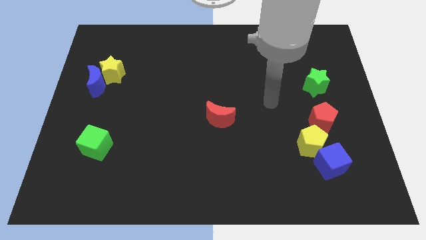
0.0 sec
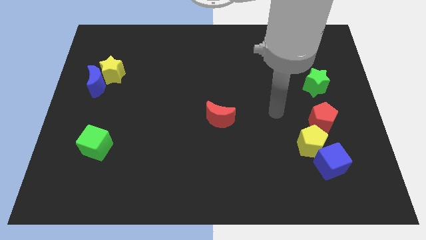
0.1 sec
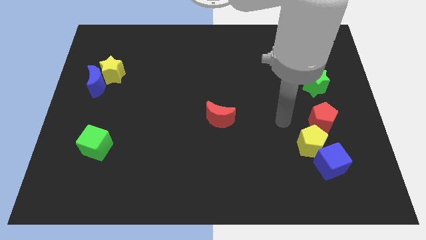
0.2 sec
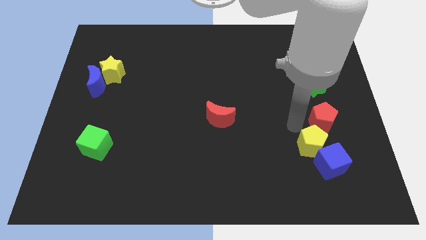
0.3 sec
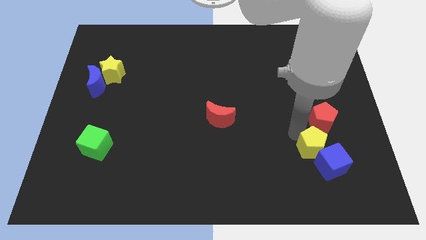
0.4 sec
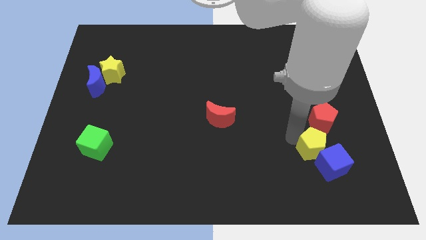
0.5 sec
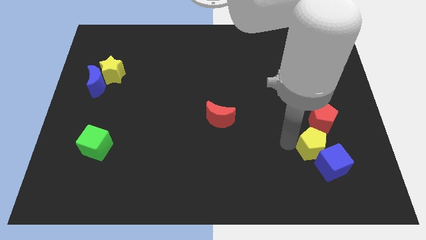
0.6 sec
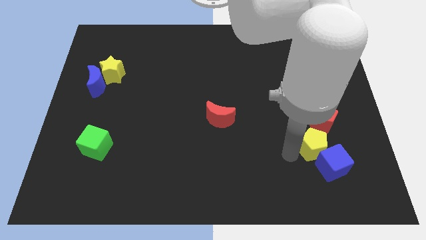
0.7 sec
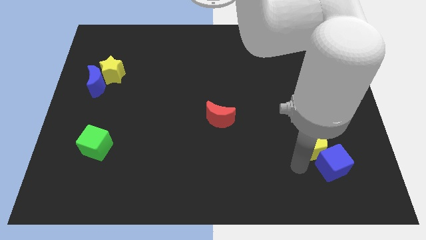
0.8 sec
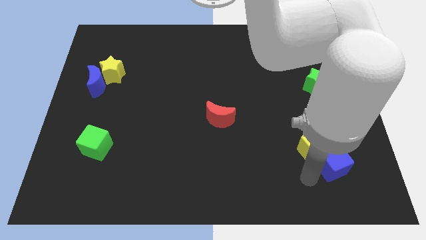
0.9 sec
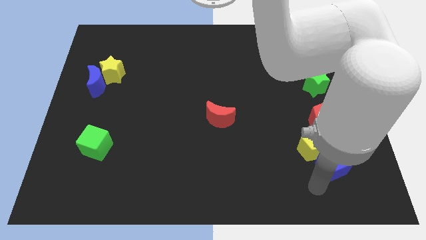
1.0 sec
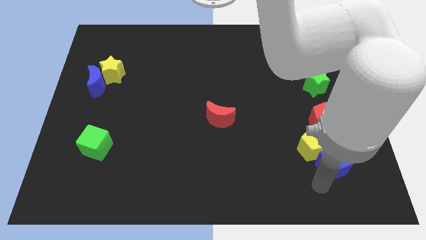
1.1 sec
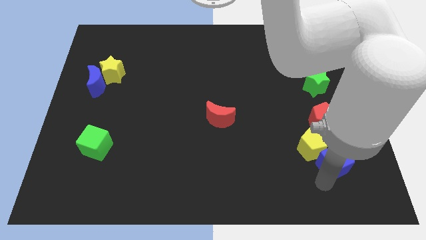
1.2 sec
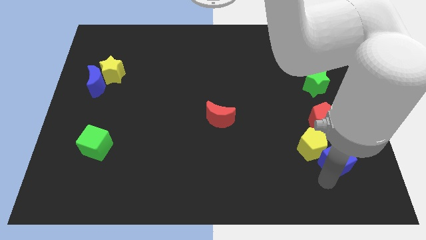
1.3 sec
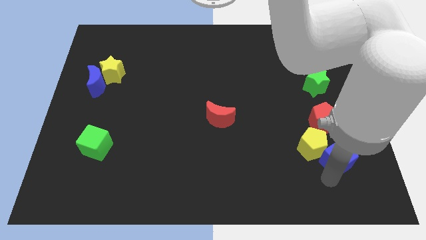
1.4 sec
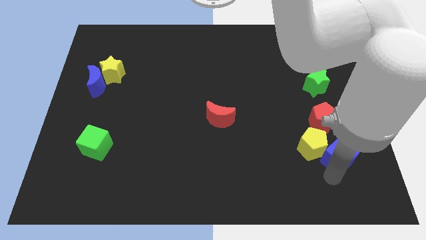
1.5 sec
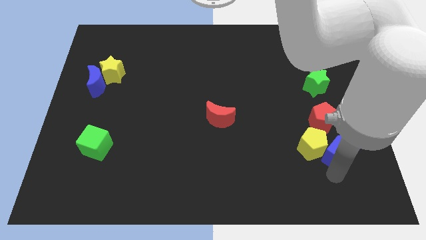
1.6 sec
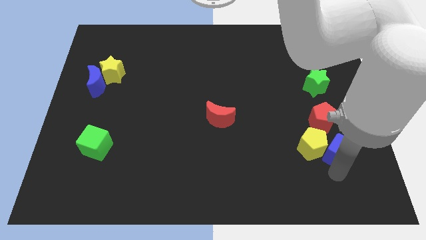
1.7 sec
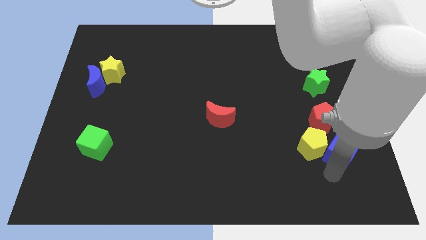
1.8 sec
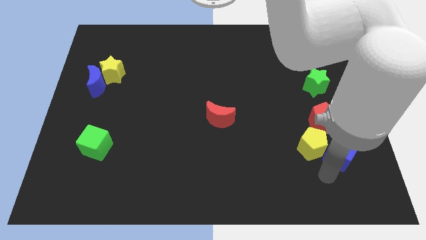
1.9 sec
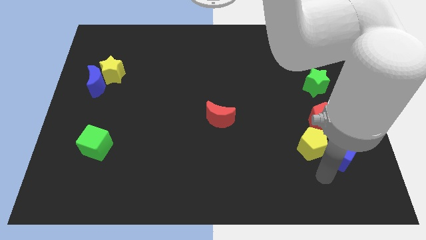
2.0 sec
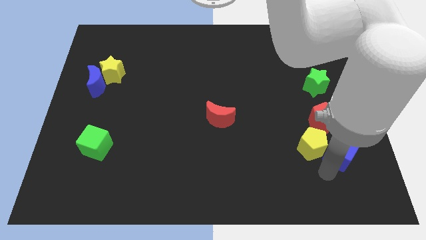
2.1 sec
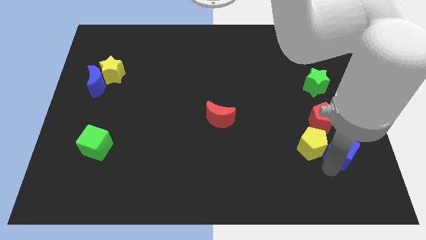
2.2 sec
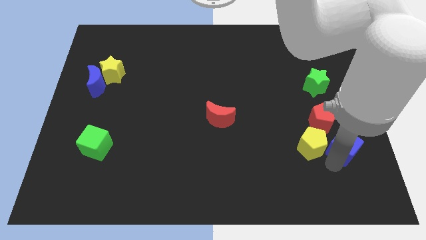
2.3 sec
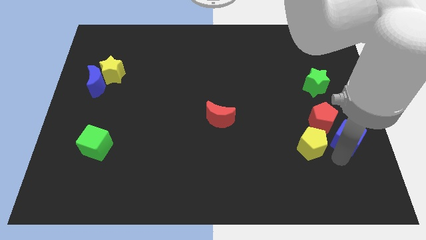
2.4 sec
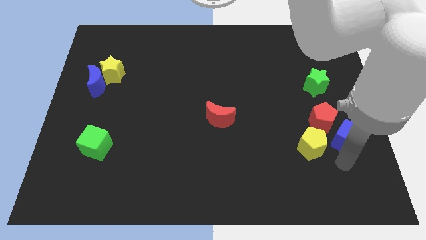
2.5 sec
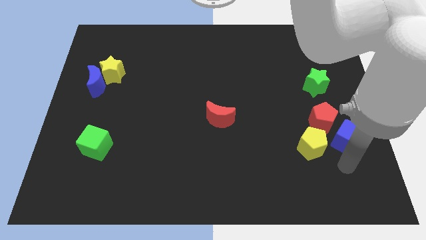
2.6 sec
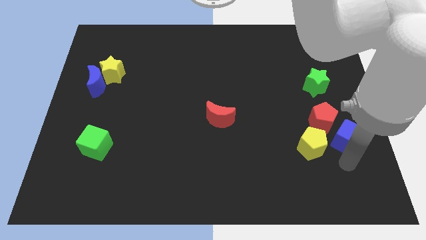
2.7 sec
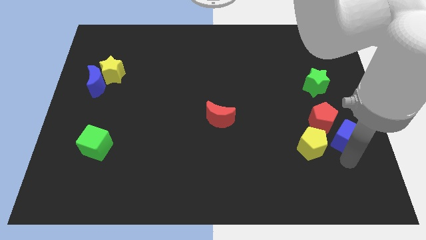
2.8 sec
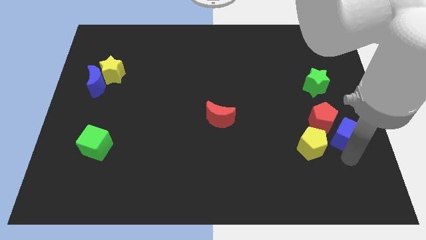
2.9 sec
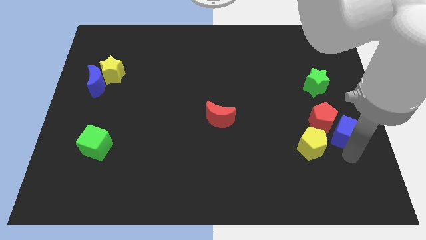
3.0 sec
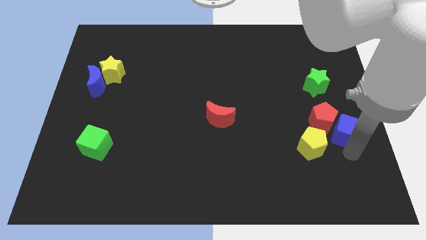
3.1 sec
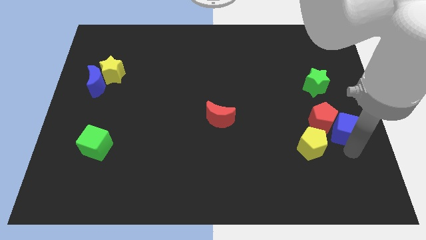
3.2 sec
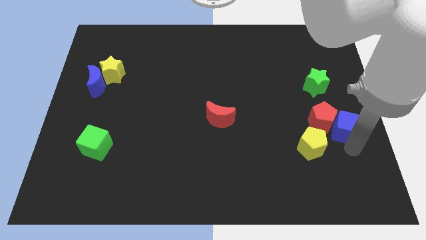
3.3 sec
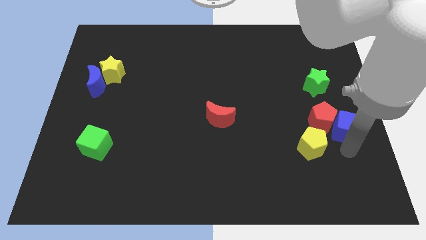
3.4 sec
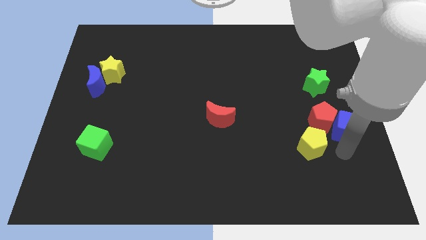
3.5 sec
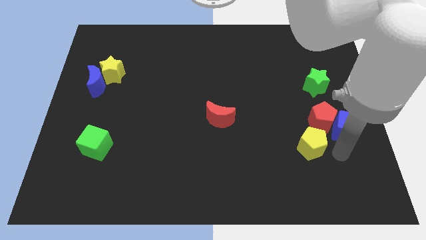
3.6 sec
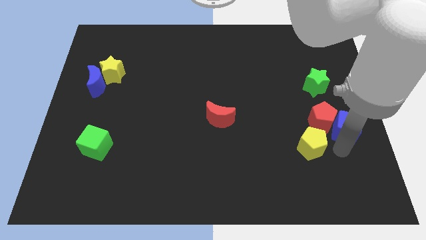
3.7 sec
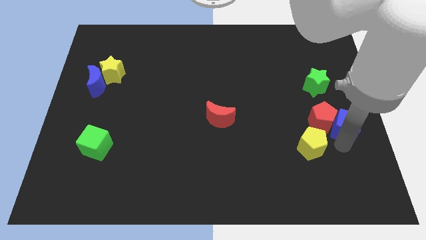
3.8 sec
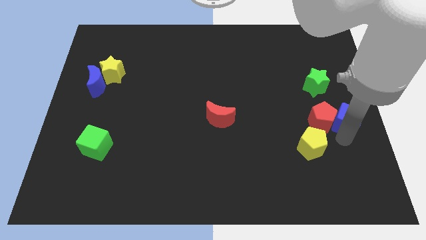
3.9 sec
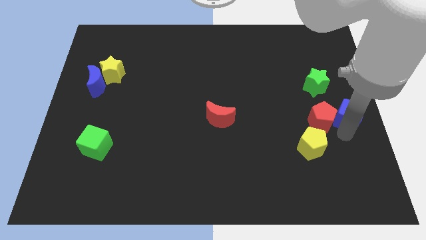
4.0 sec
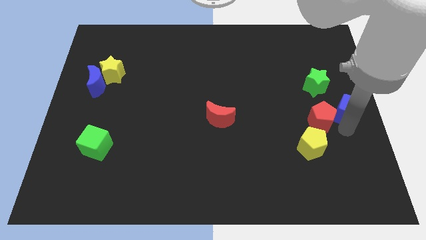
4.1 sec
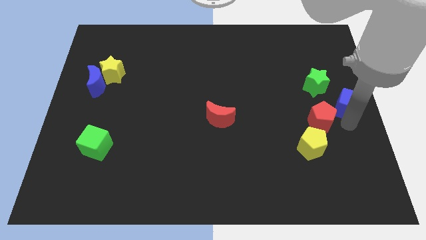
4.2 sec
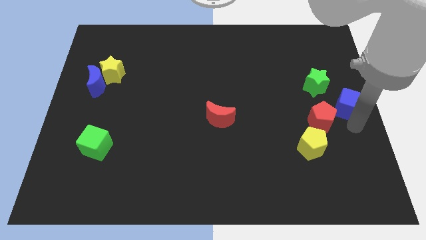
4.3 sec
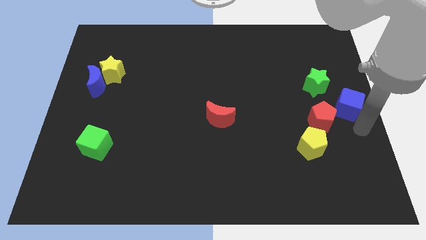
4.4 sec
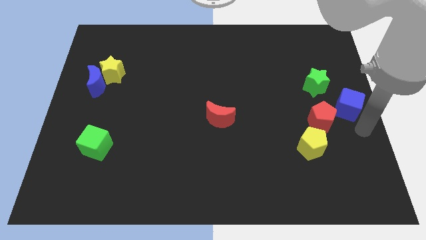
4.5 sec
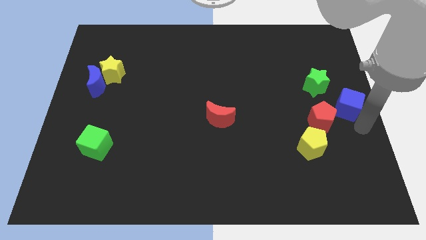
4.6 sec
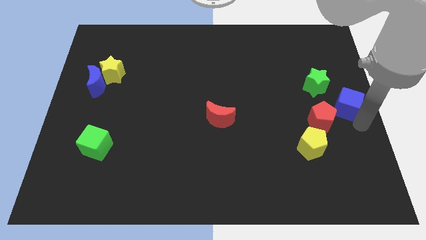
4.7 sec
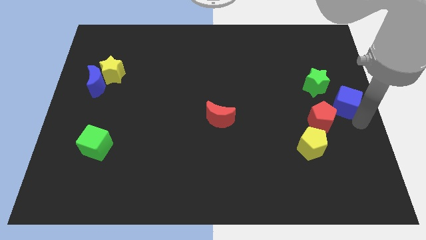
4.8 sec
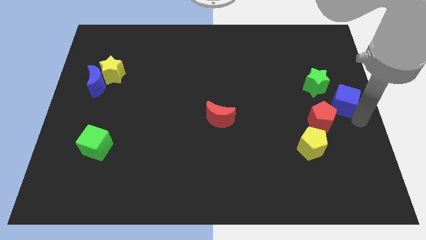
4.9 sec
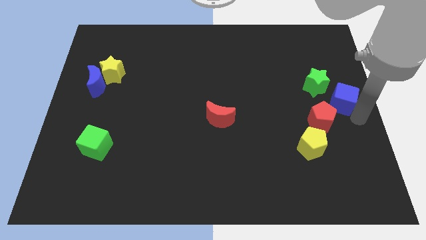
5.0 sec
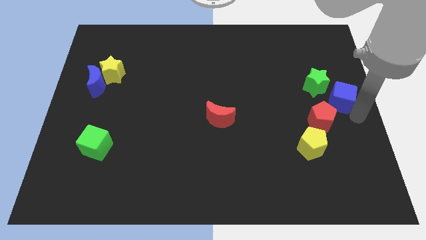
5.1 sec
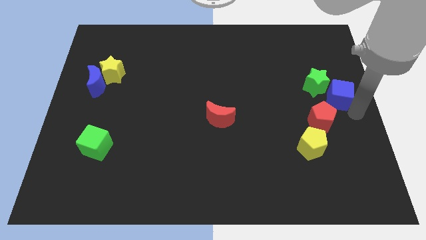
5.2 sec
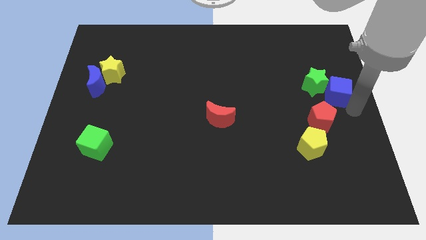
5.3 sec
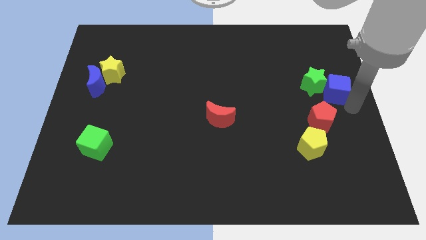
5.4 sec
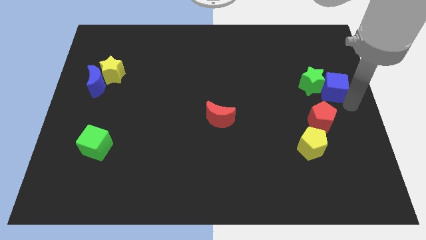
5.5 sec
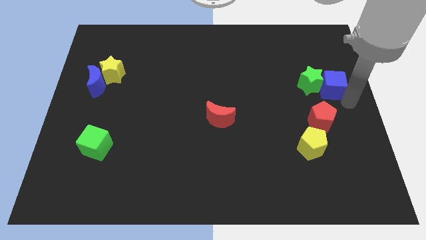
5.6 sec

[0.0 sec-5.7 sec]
move the blue cube up

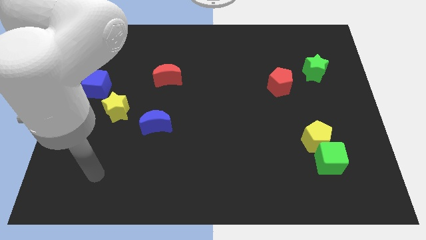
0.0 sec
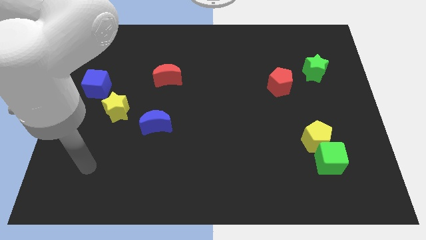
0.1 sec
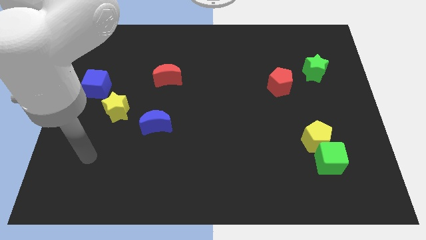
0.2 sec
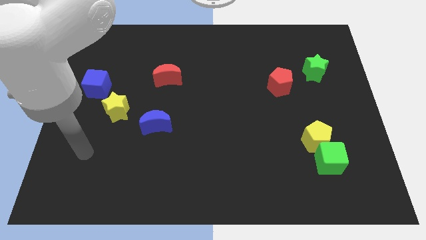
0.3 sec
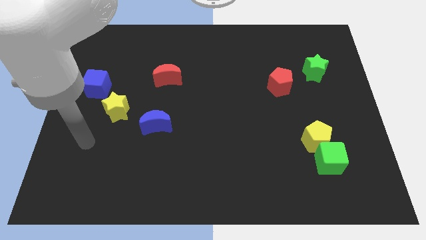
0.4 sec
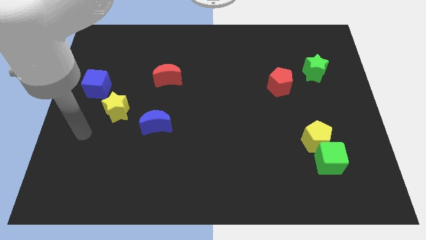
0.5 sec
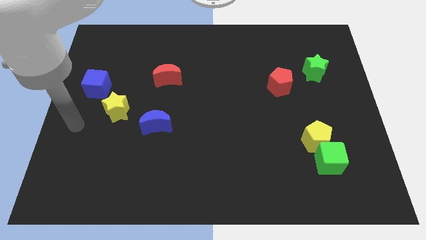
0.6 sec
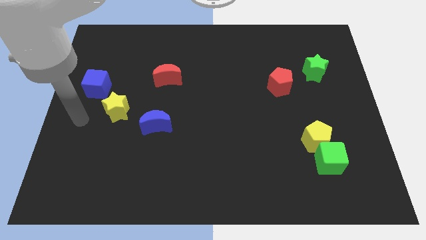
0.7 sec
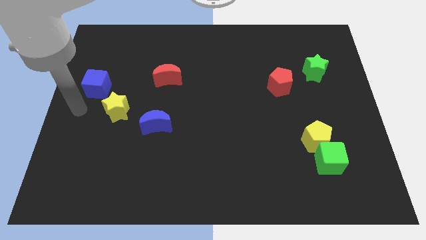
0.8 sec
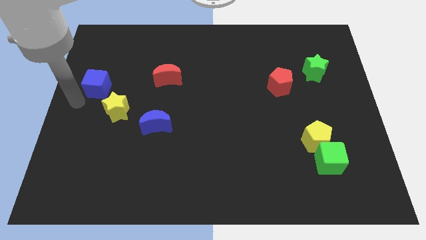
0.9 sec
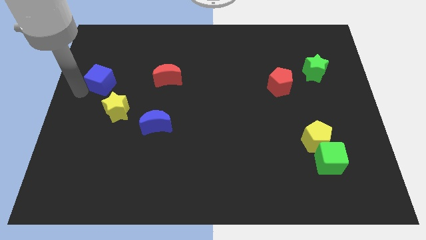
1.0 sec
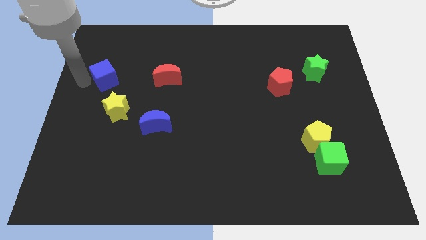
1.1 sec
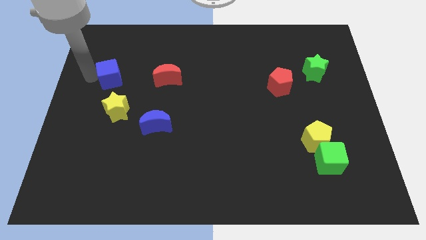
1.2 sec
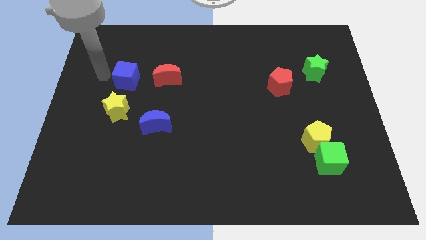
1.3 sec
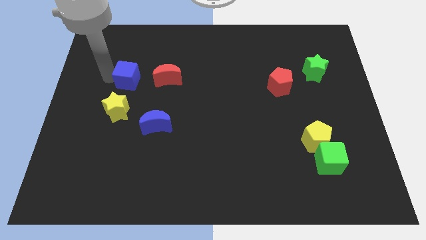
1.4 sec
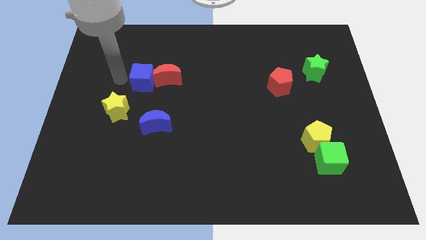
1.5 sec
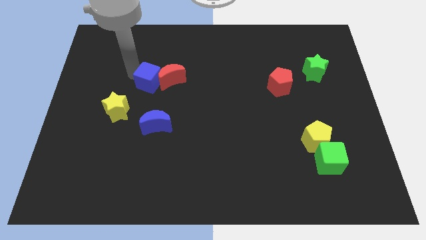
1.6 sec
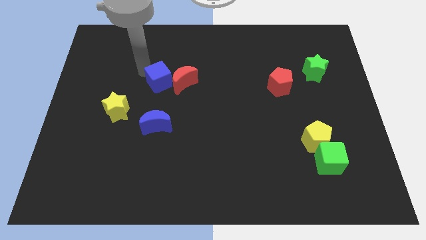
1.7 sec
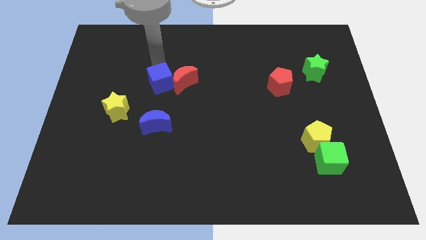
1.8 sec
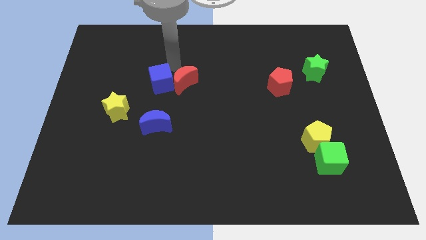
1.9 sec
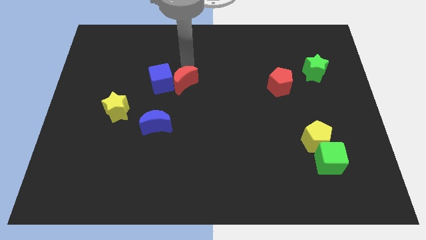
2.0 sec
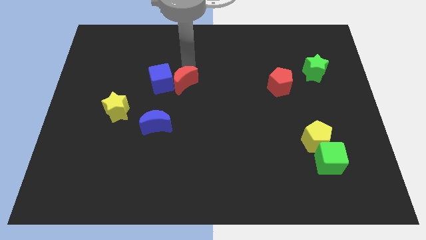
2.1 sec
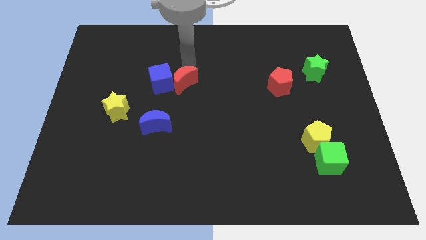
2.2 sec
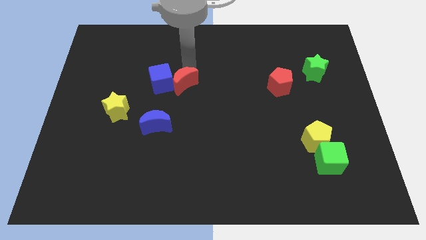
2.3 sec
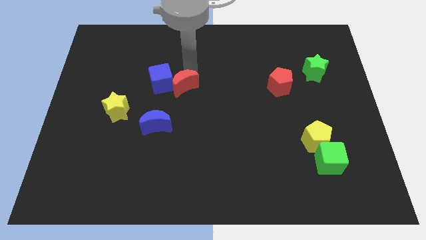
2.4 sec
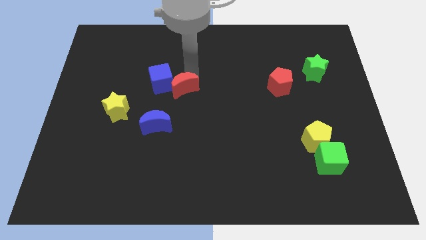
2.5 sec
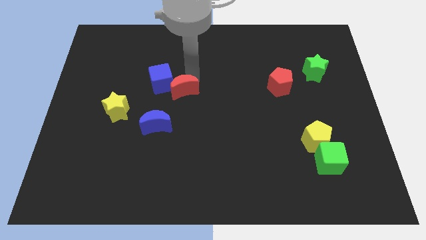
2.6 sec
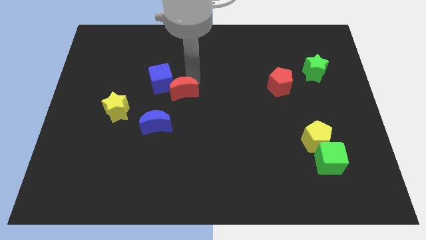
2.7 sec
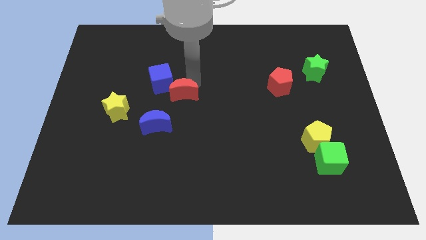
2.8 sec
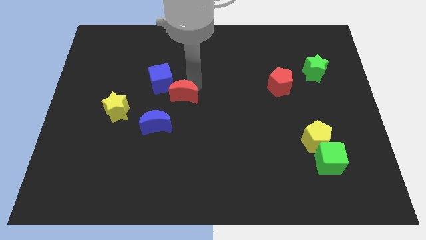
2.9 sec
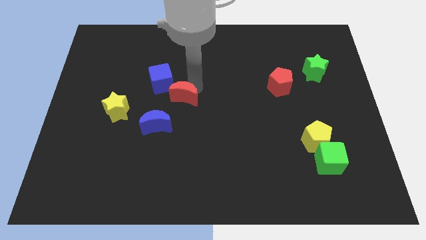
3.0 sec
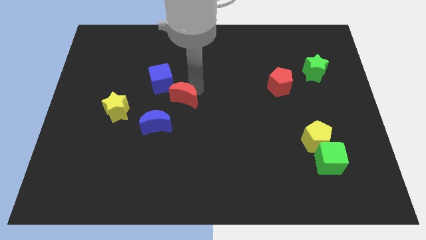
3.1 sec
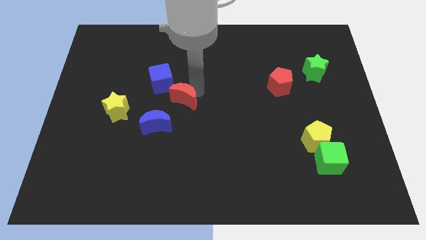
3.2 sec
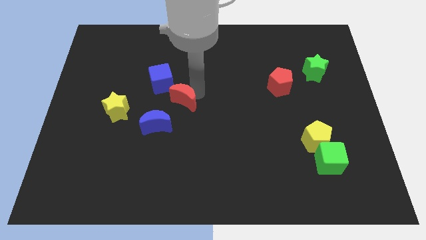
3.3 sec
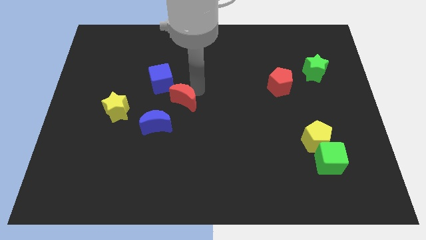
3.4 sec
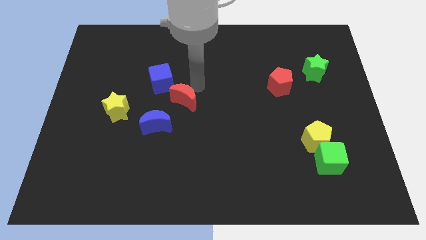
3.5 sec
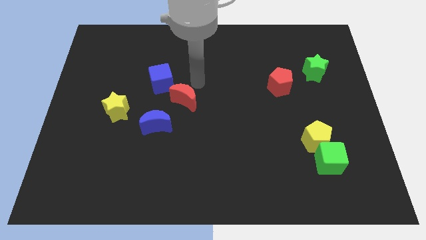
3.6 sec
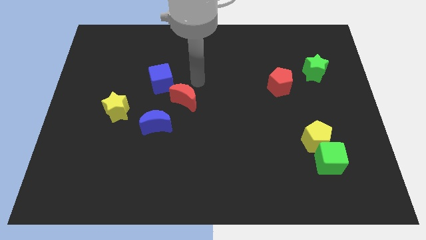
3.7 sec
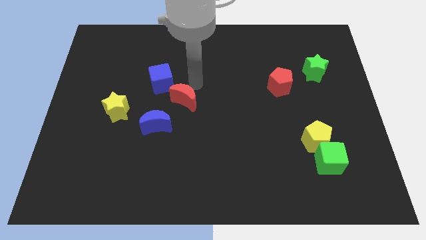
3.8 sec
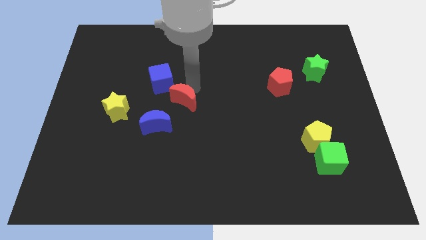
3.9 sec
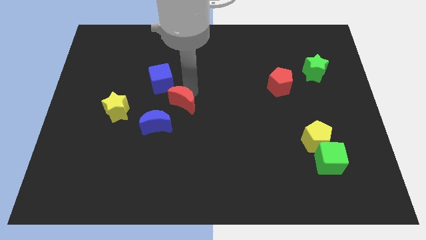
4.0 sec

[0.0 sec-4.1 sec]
slide the red moon a bit down
